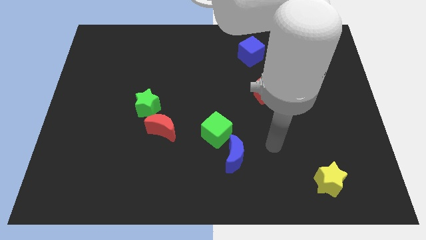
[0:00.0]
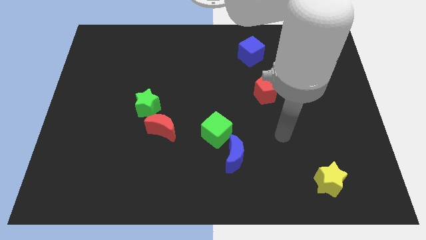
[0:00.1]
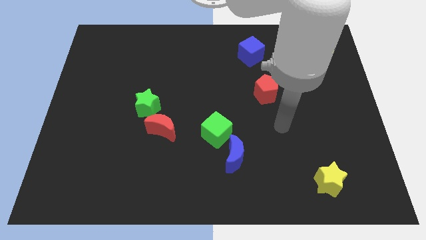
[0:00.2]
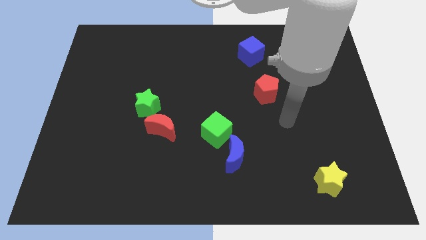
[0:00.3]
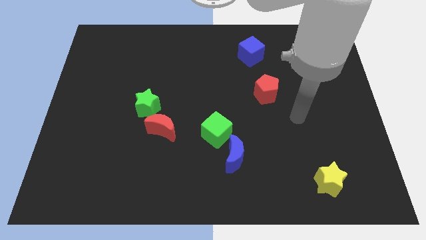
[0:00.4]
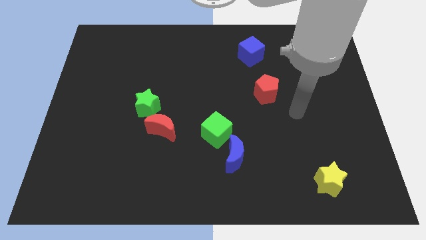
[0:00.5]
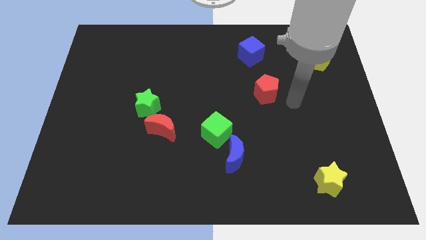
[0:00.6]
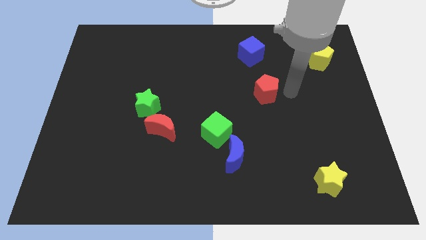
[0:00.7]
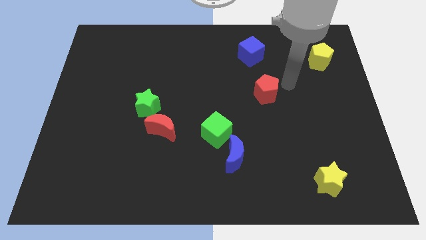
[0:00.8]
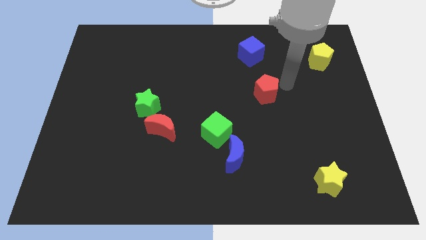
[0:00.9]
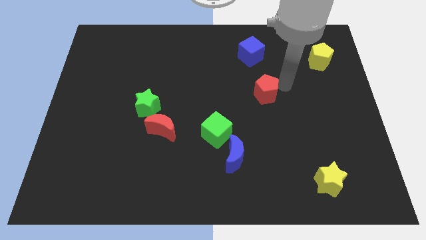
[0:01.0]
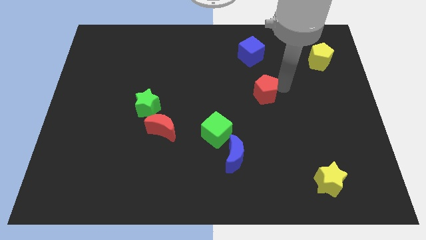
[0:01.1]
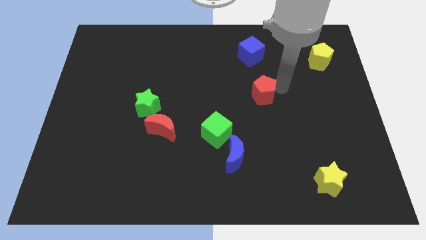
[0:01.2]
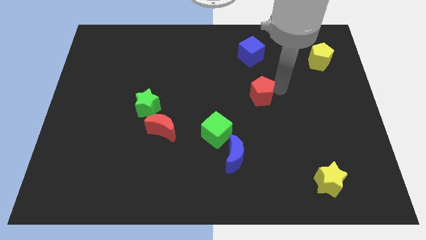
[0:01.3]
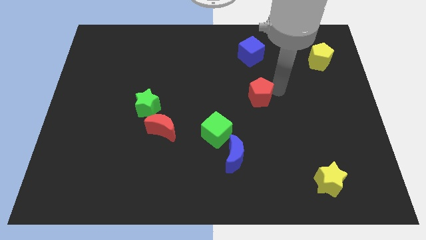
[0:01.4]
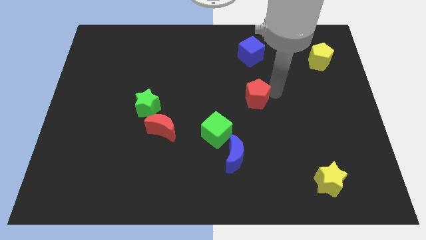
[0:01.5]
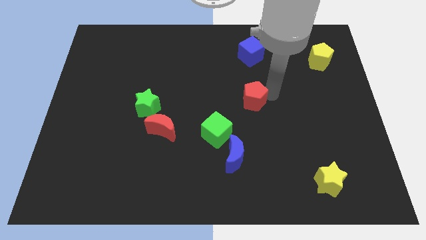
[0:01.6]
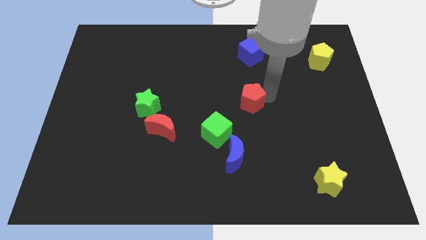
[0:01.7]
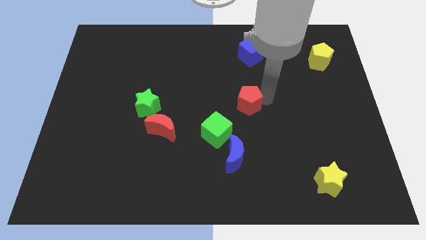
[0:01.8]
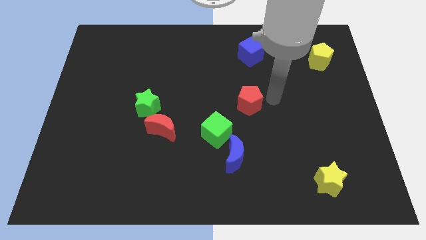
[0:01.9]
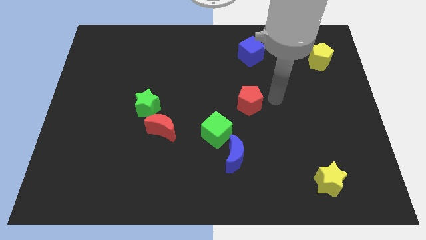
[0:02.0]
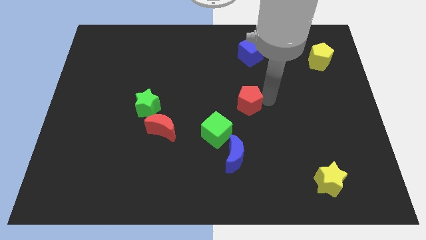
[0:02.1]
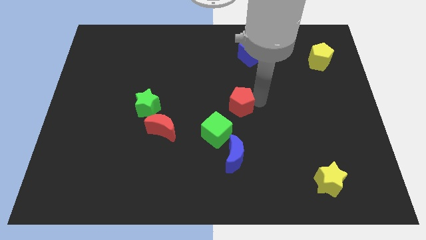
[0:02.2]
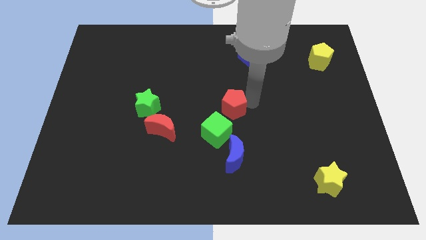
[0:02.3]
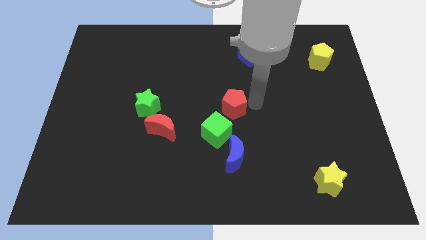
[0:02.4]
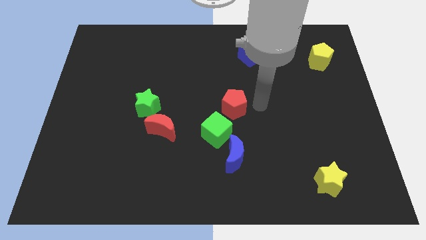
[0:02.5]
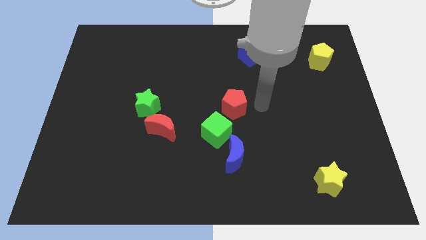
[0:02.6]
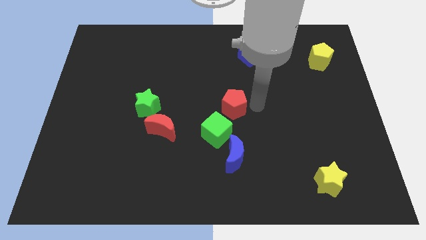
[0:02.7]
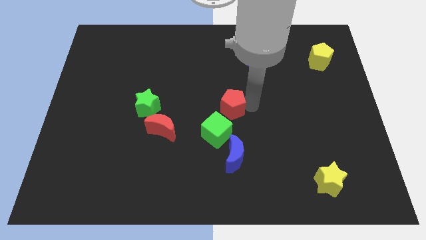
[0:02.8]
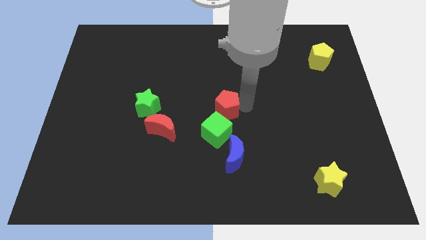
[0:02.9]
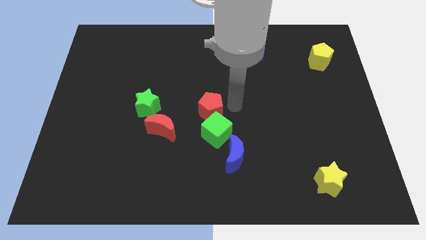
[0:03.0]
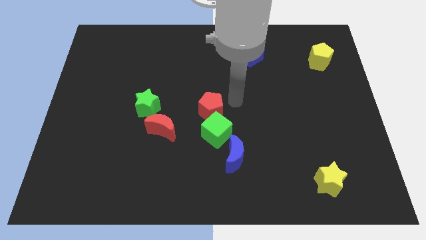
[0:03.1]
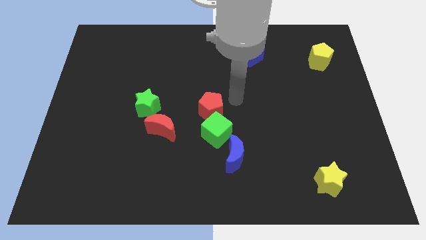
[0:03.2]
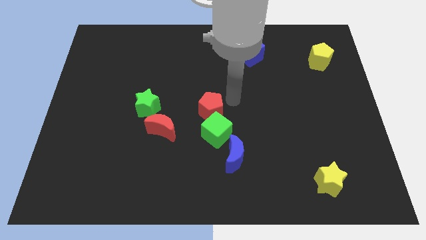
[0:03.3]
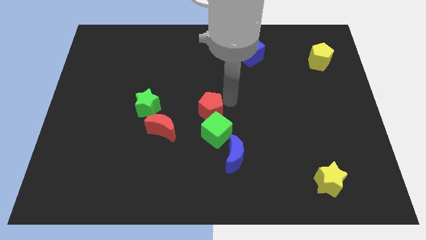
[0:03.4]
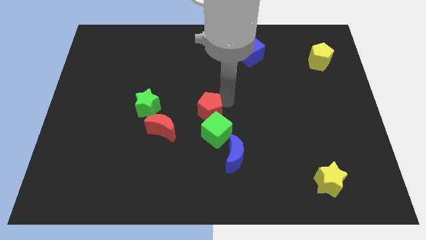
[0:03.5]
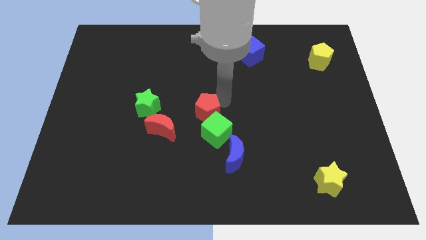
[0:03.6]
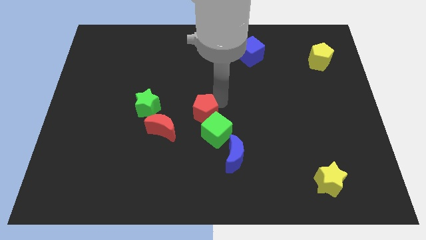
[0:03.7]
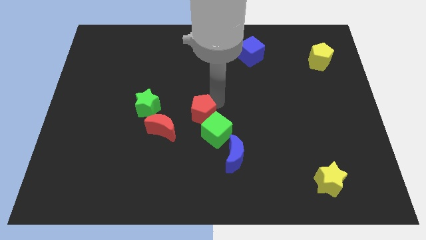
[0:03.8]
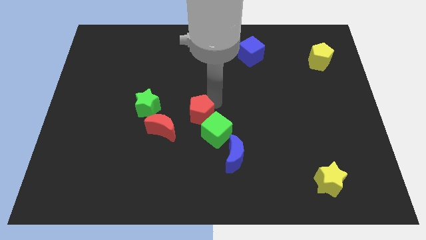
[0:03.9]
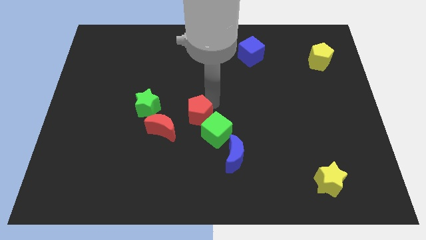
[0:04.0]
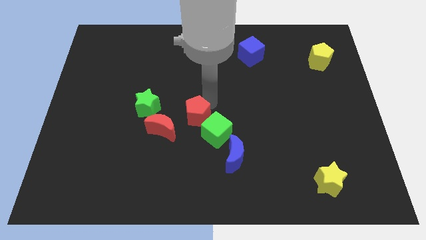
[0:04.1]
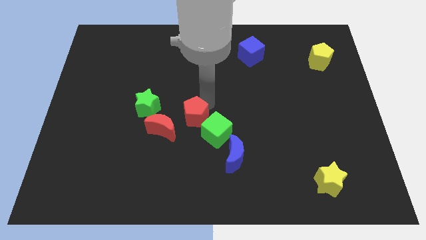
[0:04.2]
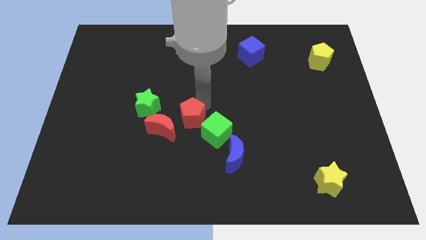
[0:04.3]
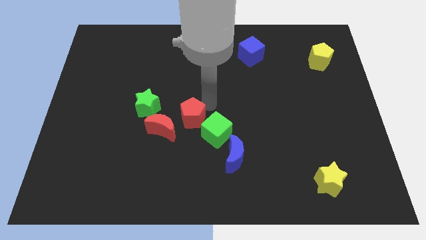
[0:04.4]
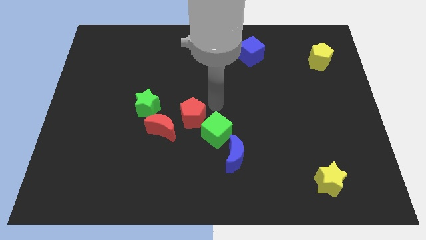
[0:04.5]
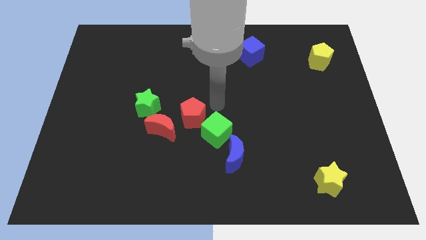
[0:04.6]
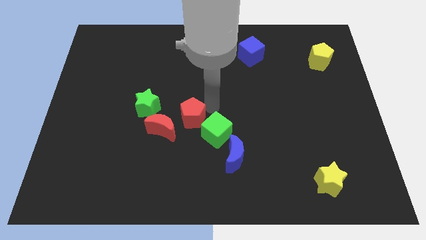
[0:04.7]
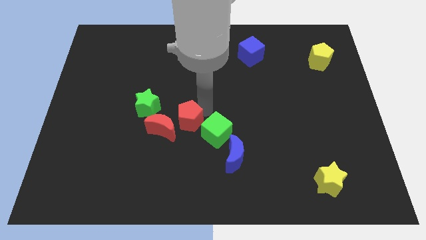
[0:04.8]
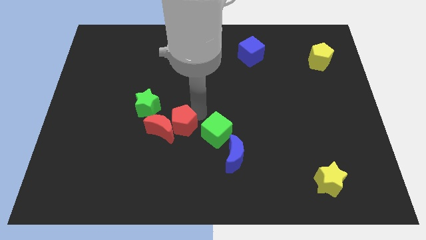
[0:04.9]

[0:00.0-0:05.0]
move the red pentagon towards the red moon

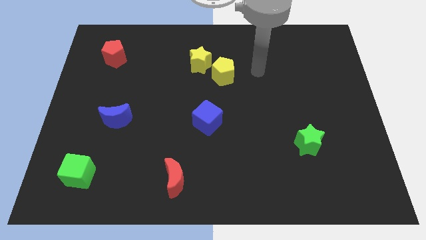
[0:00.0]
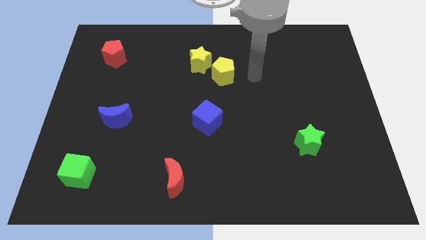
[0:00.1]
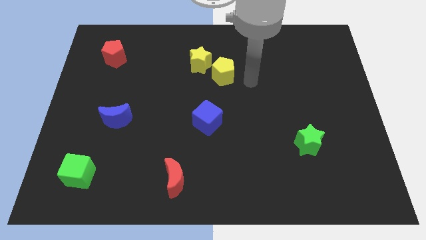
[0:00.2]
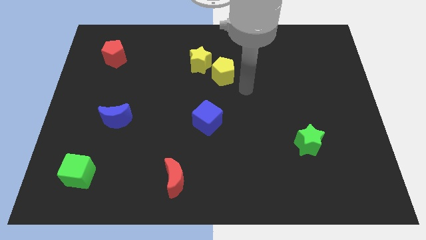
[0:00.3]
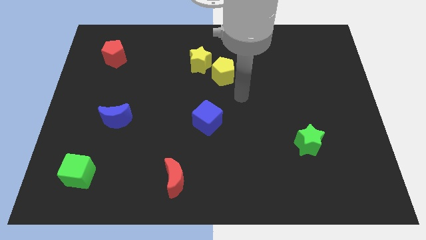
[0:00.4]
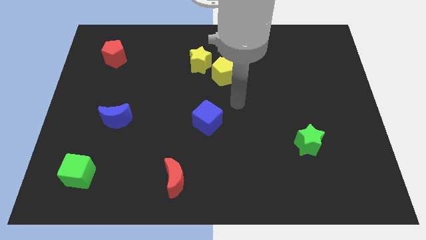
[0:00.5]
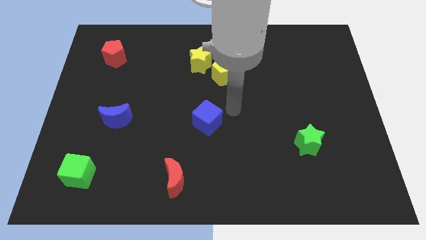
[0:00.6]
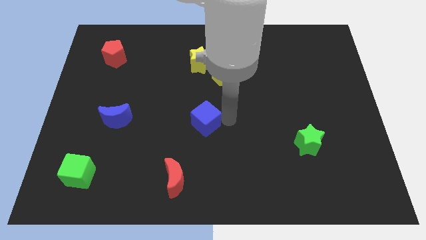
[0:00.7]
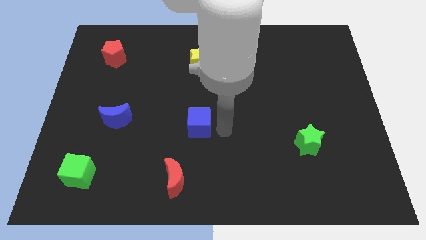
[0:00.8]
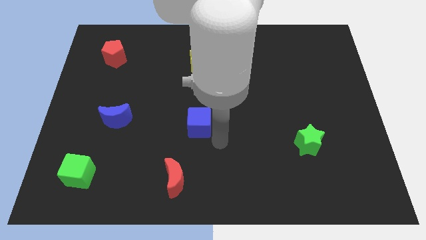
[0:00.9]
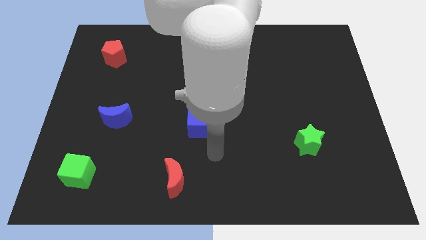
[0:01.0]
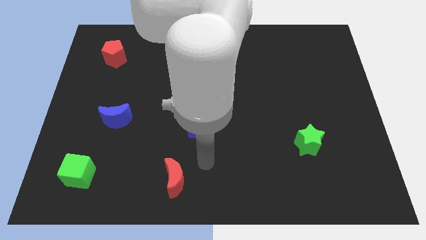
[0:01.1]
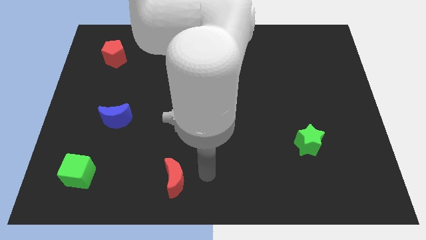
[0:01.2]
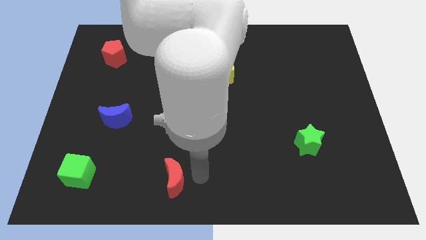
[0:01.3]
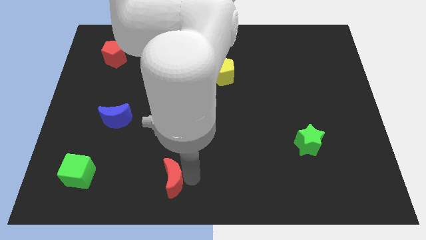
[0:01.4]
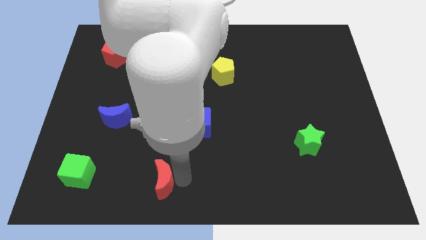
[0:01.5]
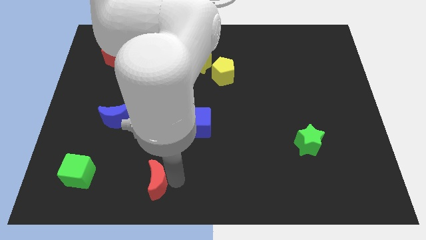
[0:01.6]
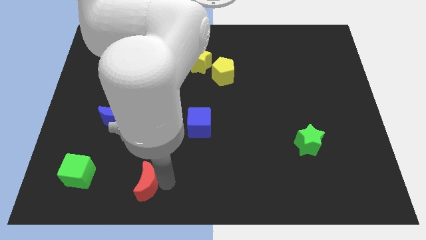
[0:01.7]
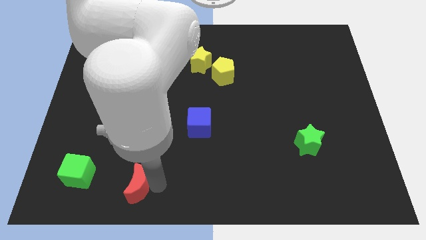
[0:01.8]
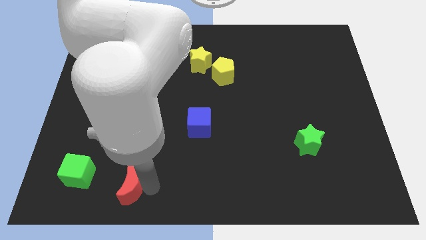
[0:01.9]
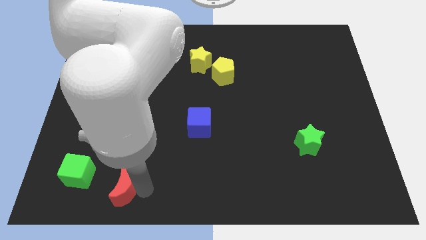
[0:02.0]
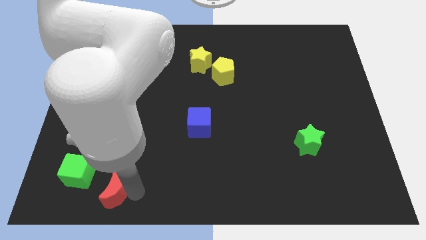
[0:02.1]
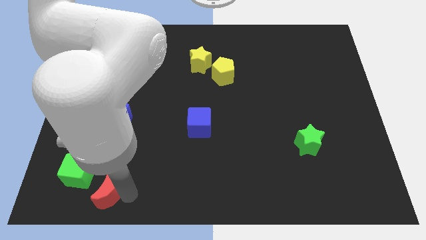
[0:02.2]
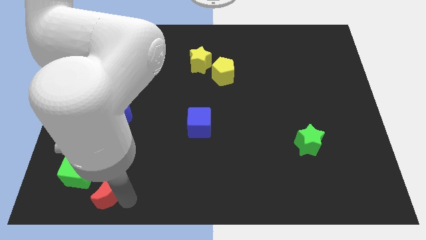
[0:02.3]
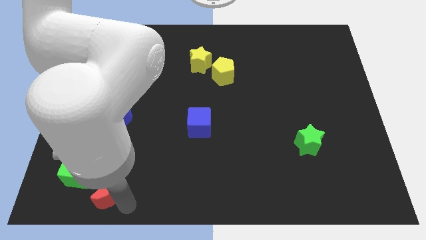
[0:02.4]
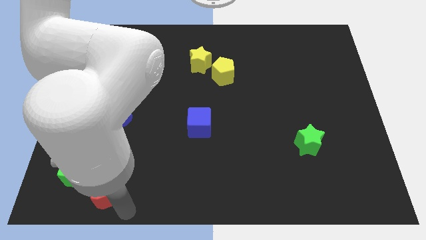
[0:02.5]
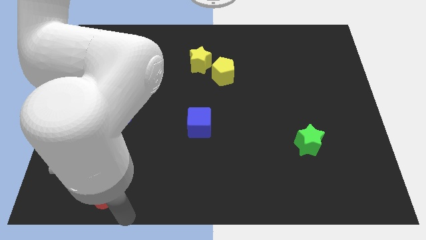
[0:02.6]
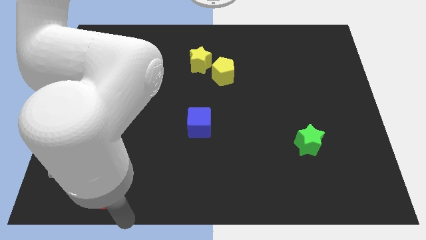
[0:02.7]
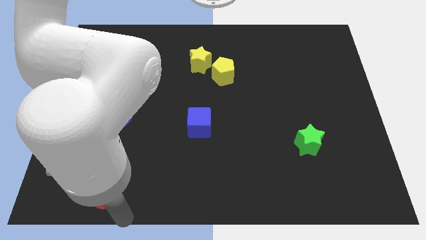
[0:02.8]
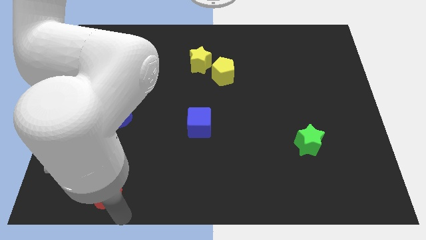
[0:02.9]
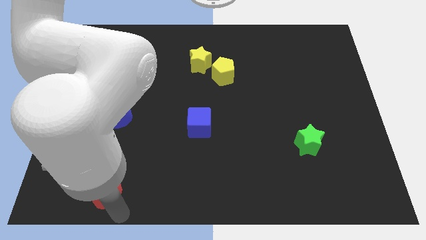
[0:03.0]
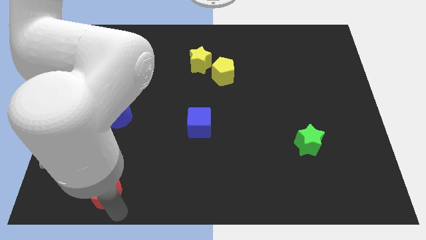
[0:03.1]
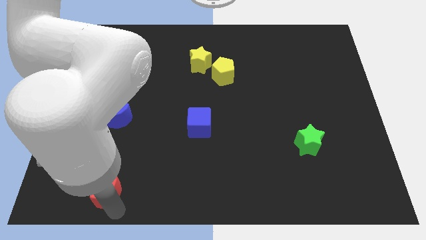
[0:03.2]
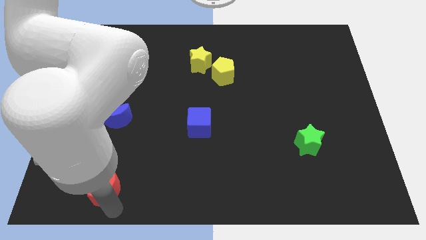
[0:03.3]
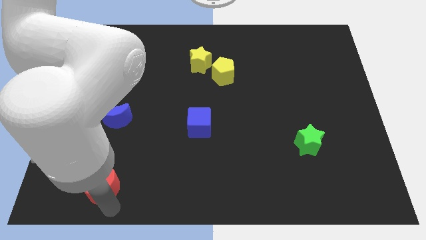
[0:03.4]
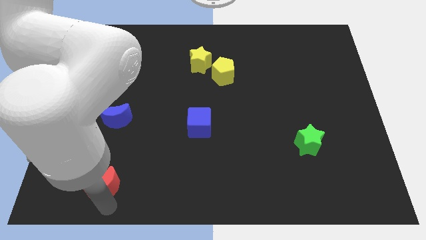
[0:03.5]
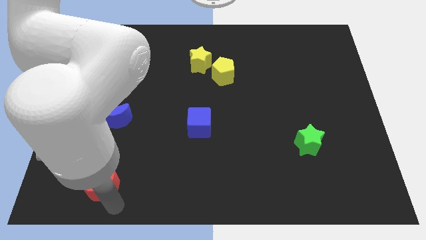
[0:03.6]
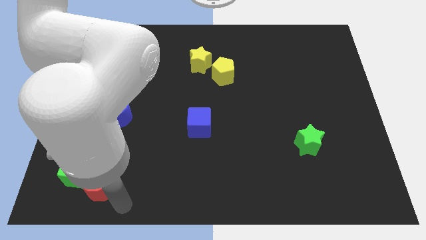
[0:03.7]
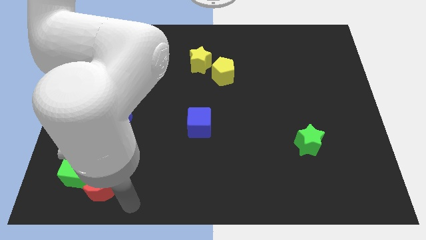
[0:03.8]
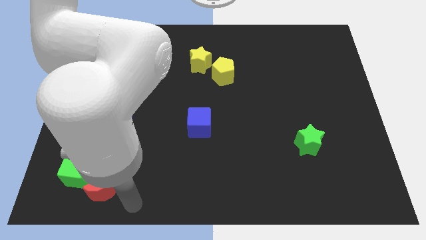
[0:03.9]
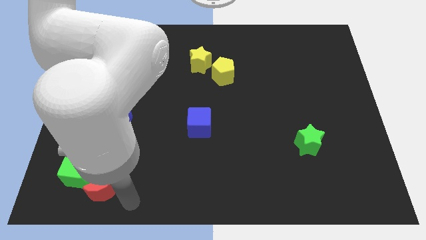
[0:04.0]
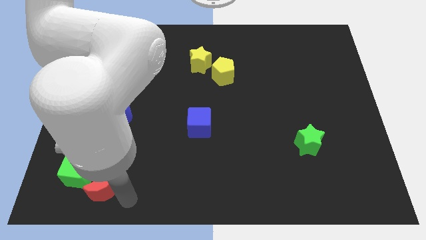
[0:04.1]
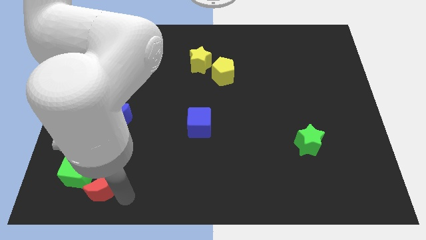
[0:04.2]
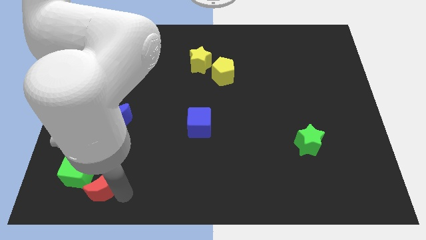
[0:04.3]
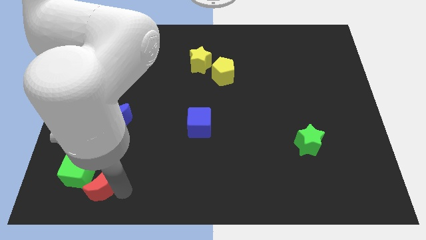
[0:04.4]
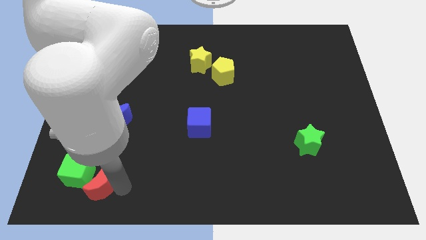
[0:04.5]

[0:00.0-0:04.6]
push the red moon towards the green cube
